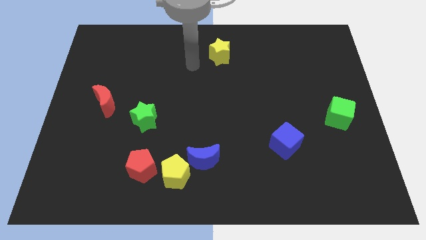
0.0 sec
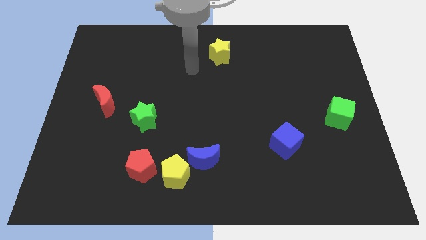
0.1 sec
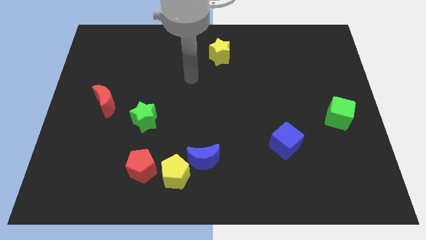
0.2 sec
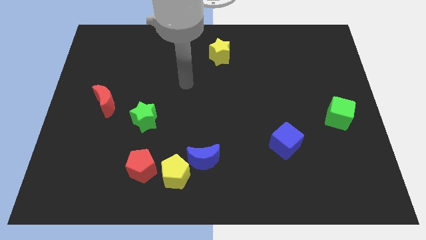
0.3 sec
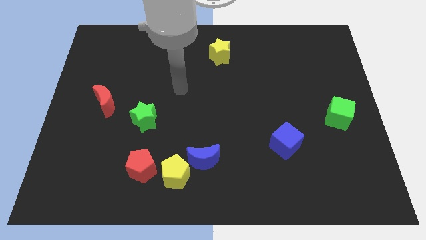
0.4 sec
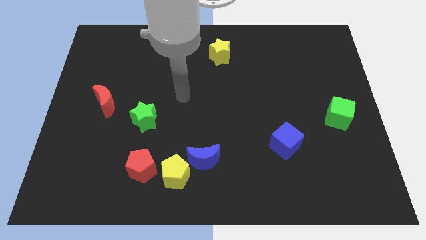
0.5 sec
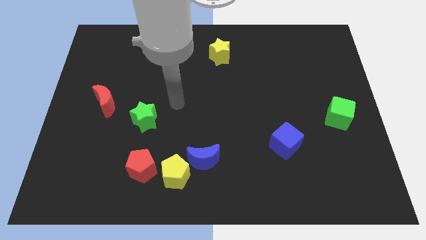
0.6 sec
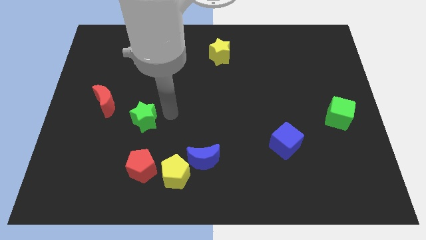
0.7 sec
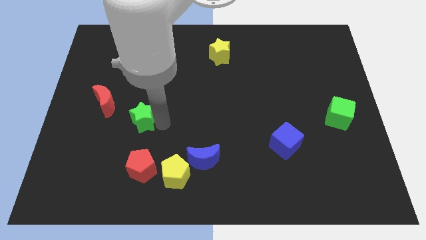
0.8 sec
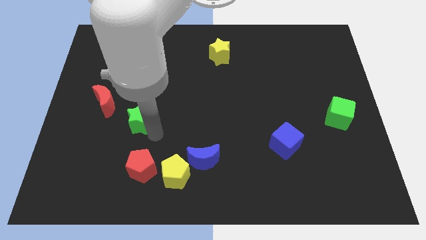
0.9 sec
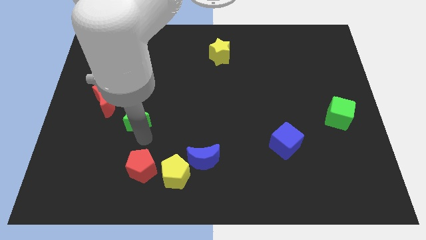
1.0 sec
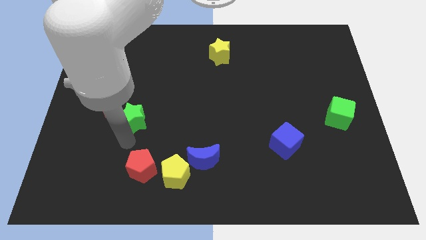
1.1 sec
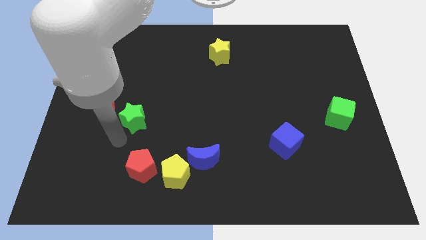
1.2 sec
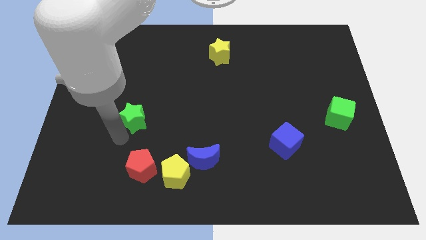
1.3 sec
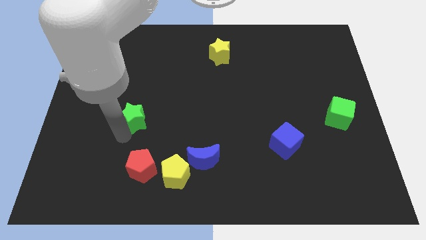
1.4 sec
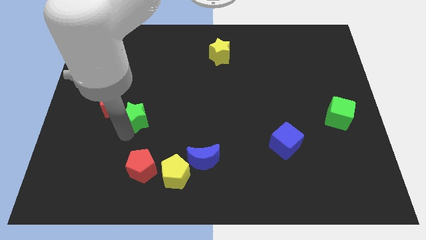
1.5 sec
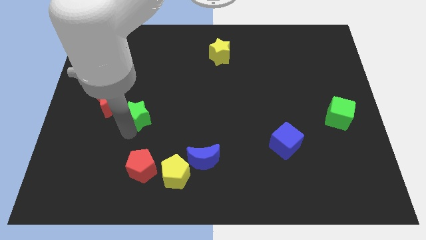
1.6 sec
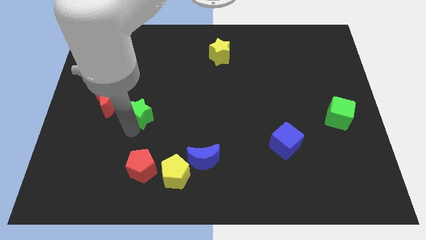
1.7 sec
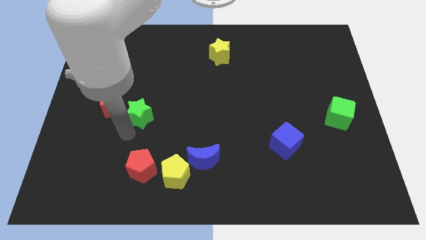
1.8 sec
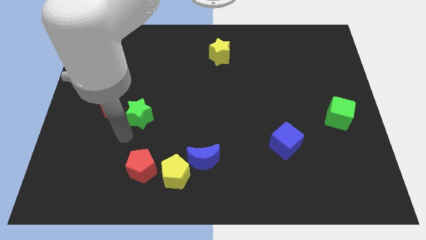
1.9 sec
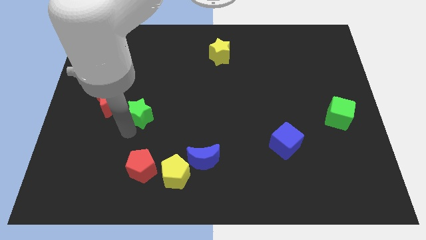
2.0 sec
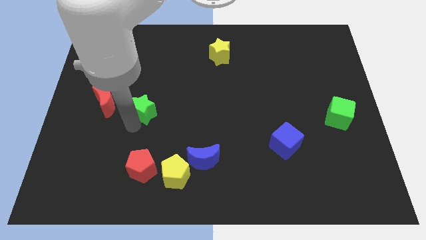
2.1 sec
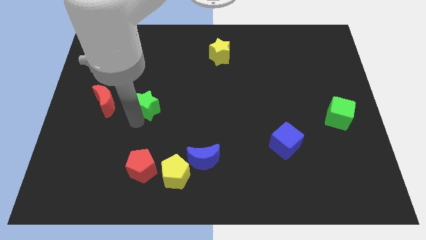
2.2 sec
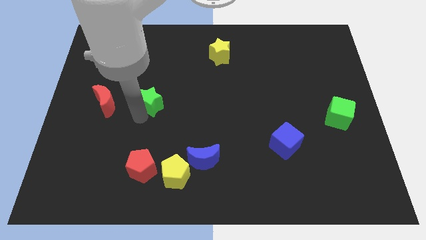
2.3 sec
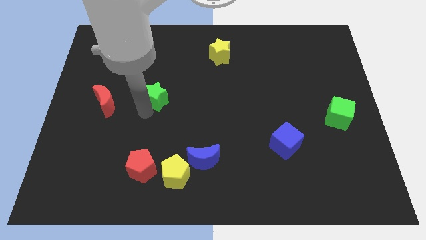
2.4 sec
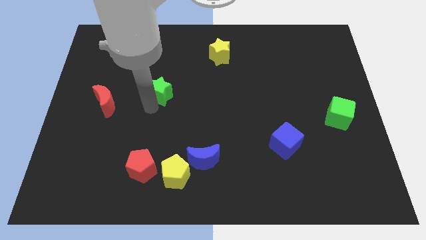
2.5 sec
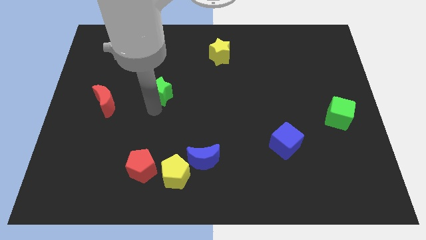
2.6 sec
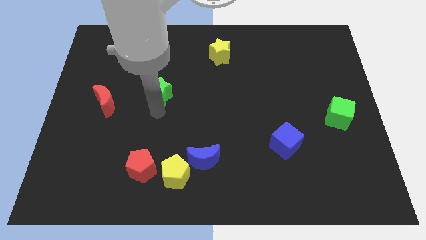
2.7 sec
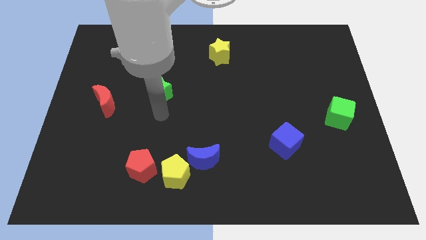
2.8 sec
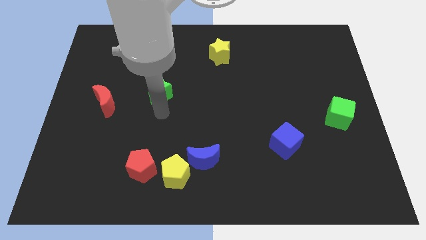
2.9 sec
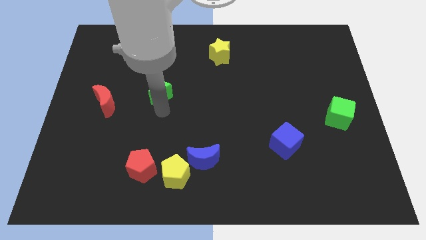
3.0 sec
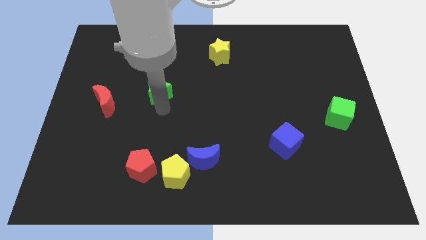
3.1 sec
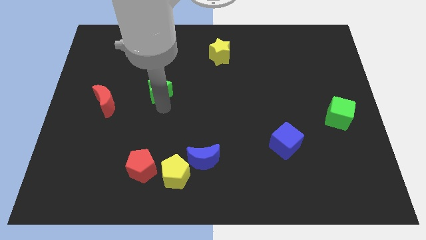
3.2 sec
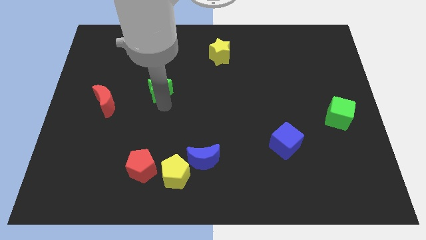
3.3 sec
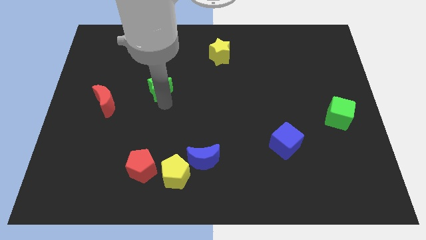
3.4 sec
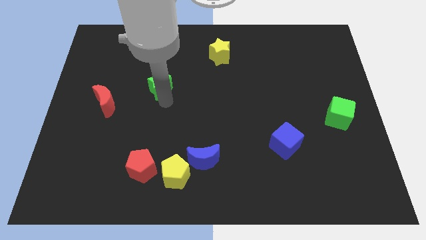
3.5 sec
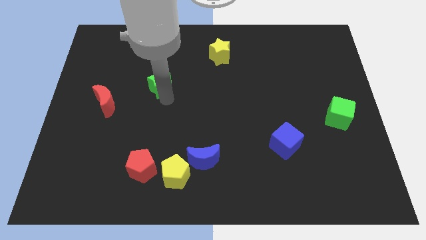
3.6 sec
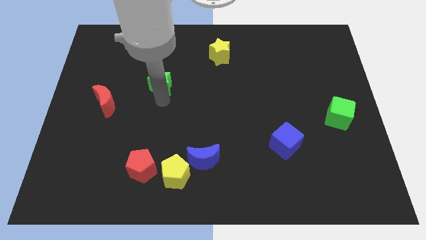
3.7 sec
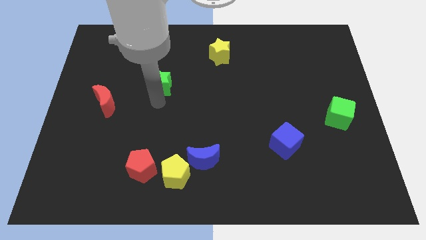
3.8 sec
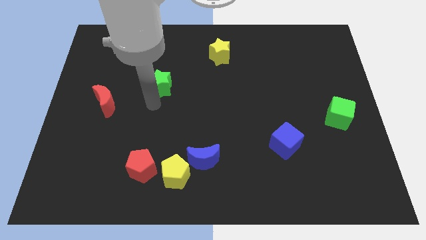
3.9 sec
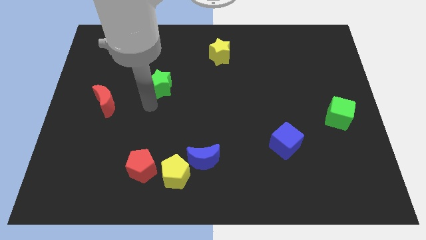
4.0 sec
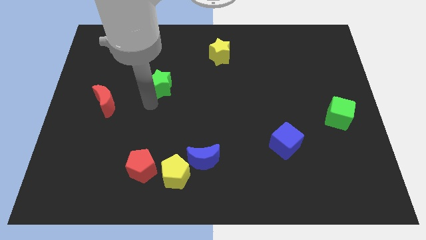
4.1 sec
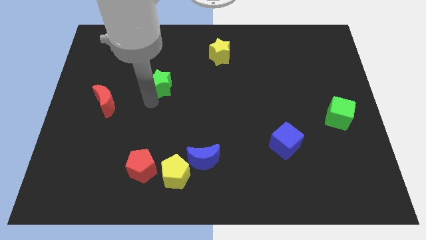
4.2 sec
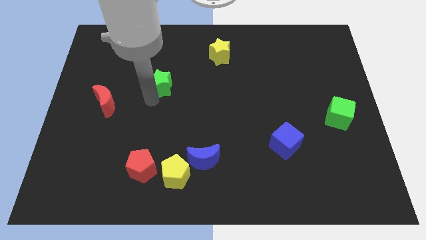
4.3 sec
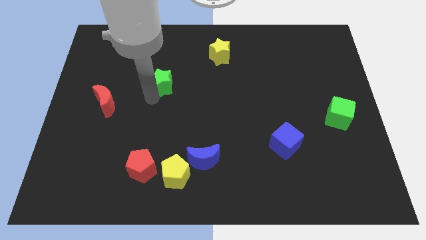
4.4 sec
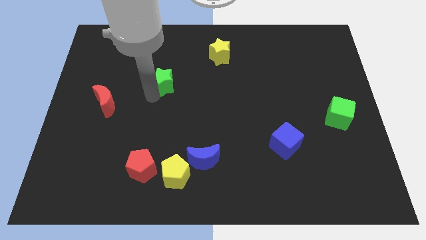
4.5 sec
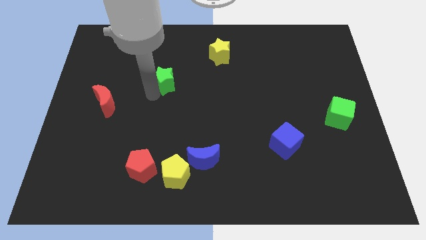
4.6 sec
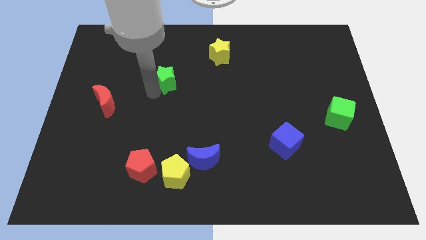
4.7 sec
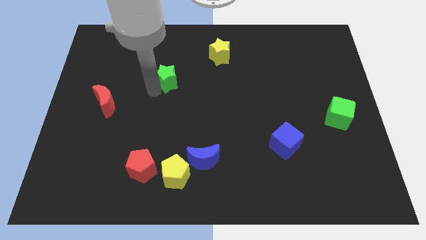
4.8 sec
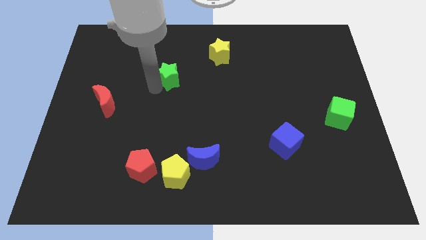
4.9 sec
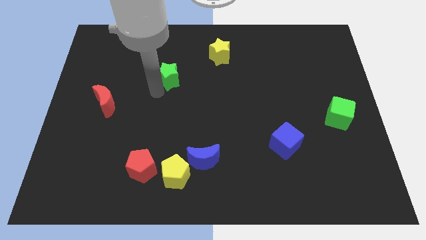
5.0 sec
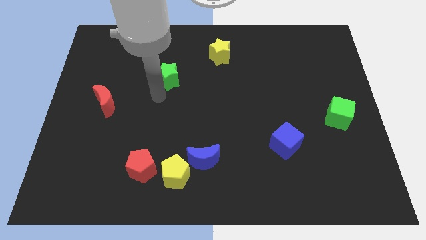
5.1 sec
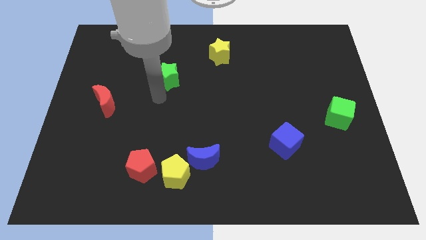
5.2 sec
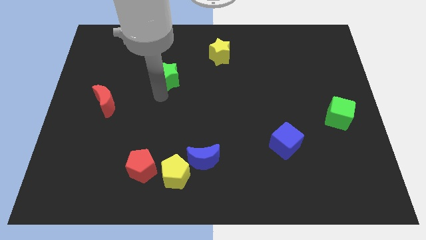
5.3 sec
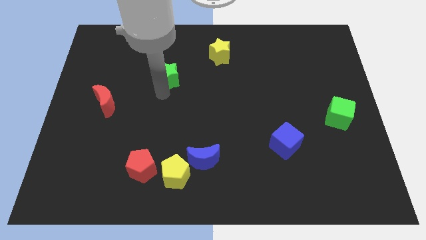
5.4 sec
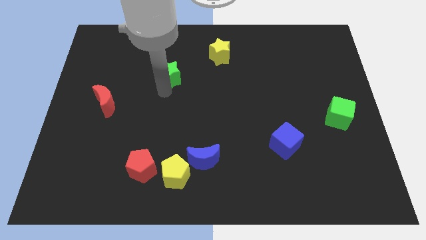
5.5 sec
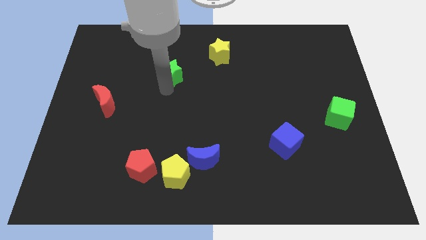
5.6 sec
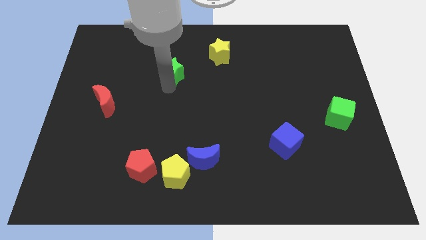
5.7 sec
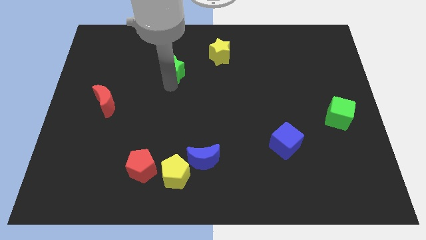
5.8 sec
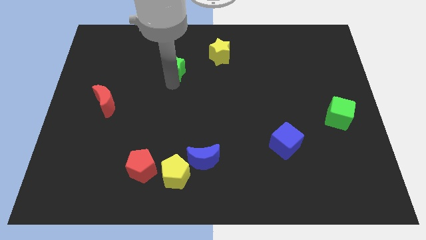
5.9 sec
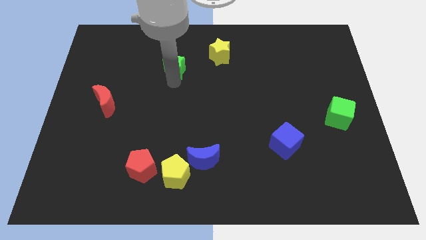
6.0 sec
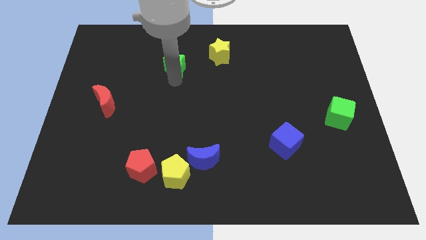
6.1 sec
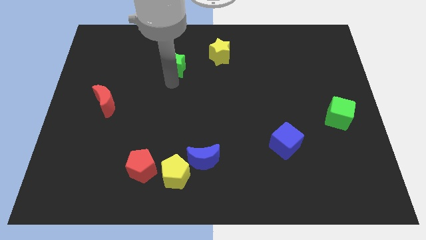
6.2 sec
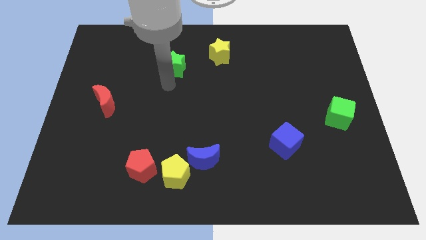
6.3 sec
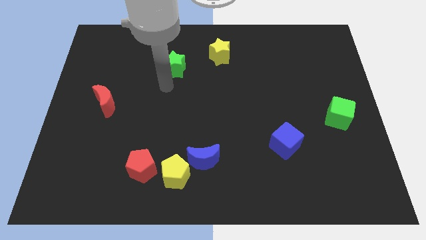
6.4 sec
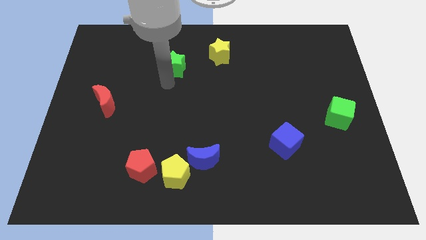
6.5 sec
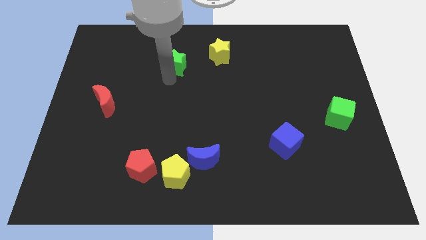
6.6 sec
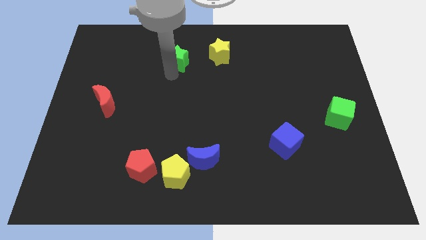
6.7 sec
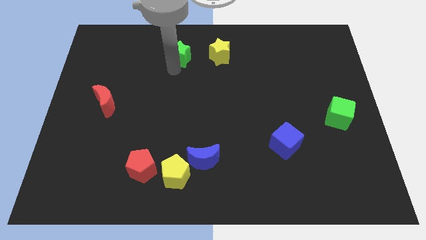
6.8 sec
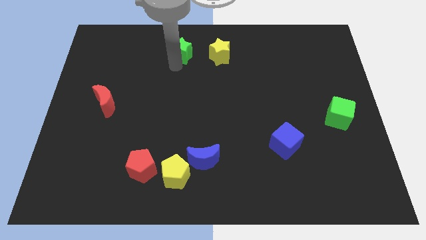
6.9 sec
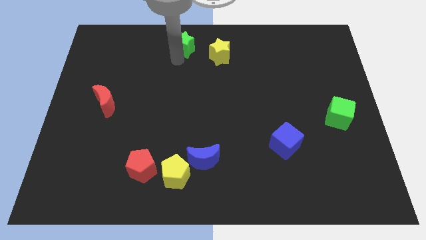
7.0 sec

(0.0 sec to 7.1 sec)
push the green star to the top
